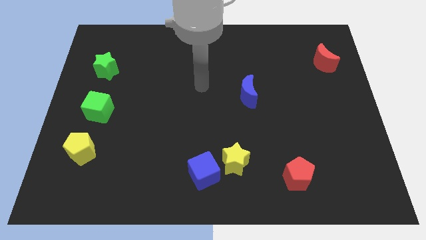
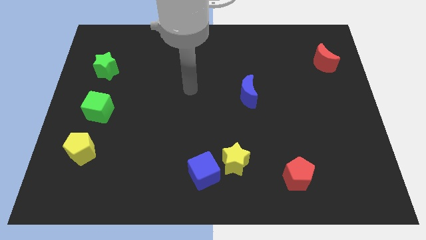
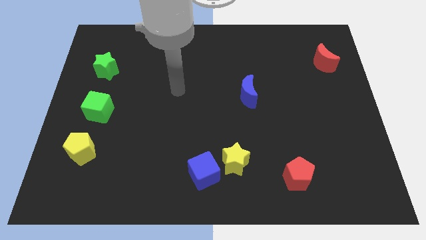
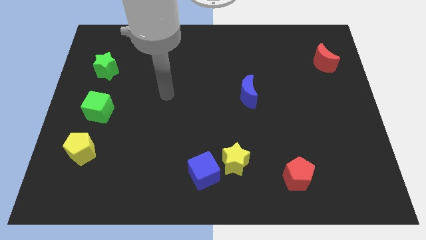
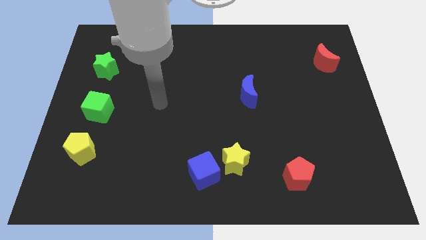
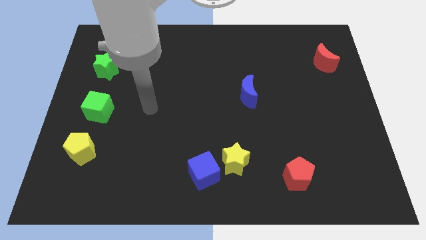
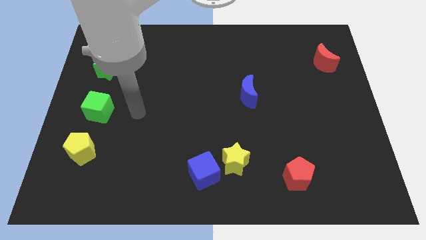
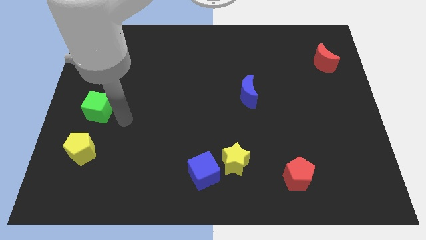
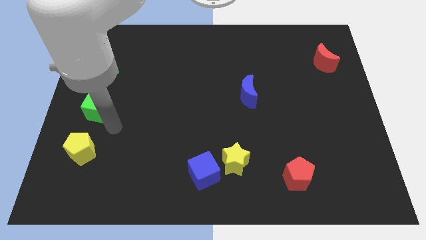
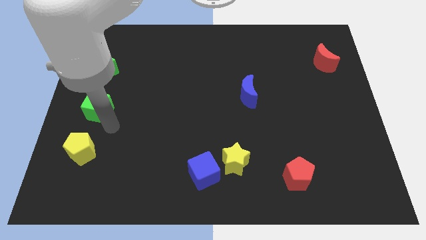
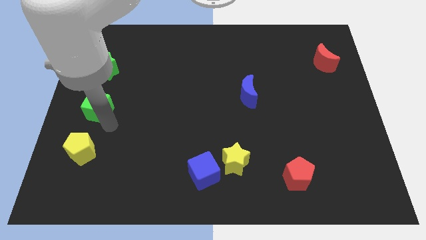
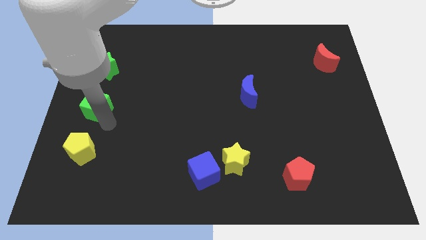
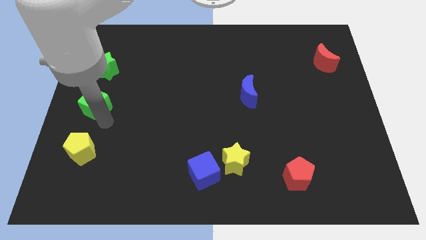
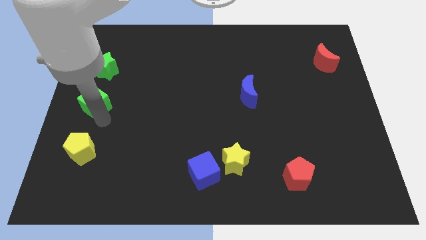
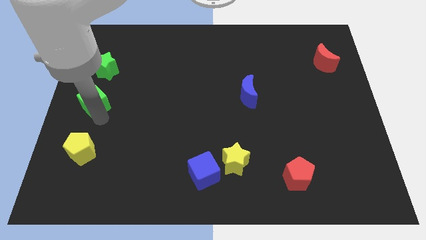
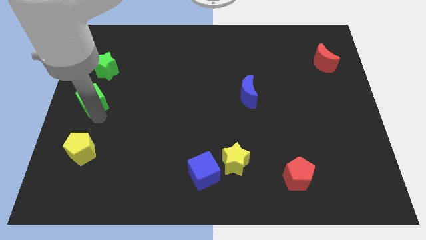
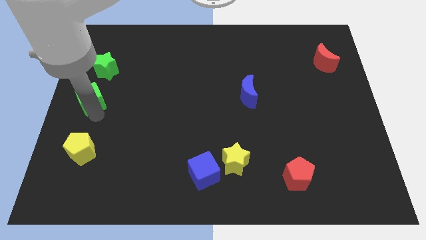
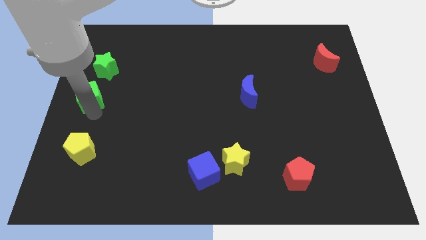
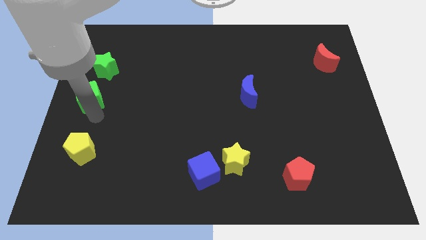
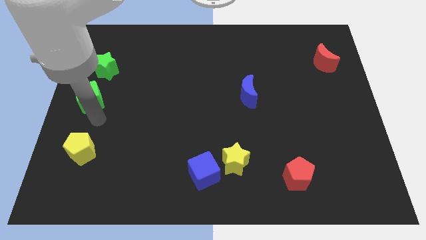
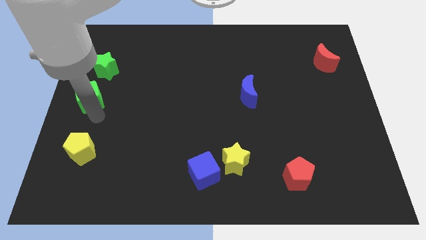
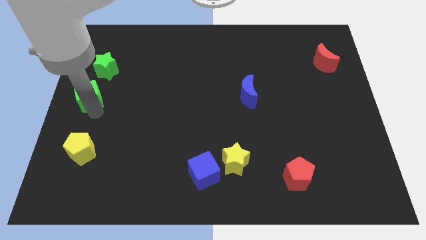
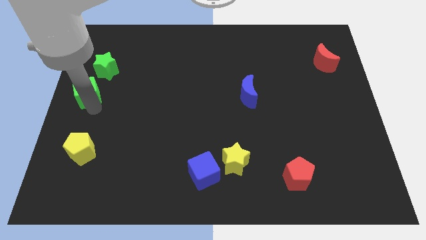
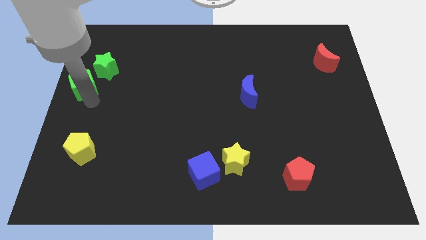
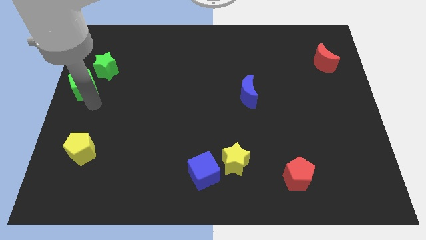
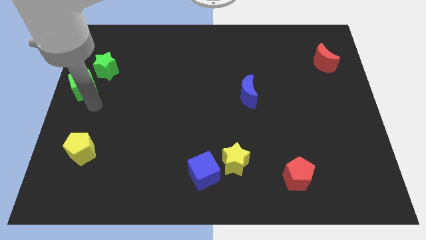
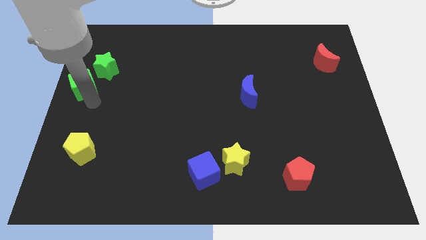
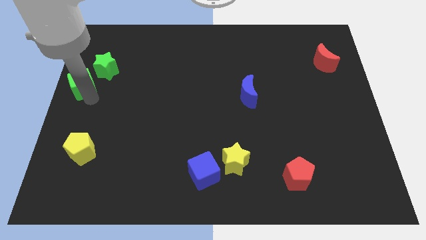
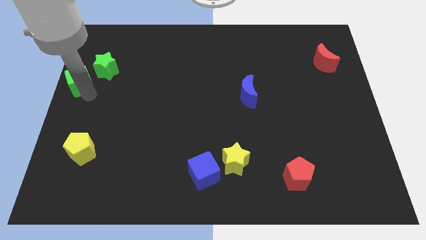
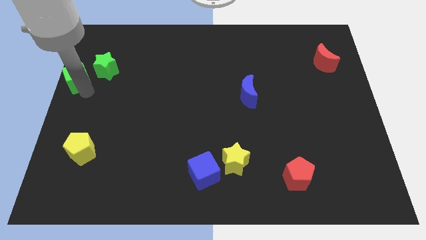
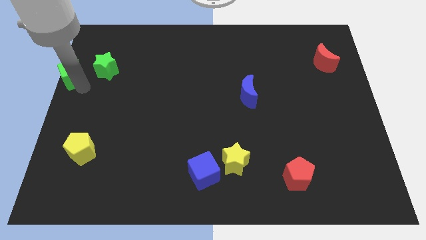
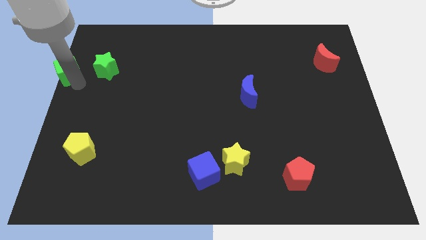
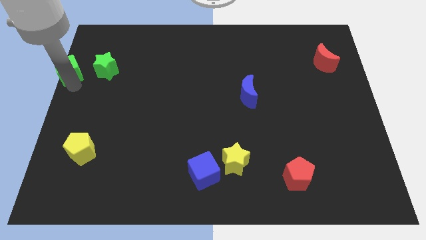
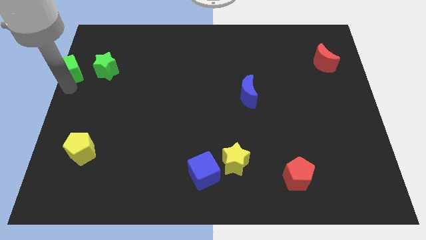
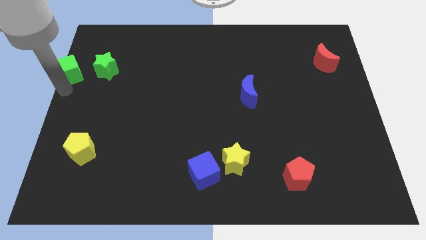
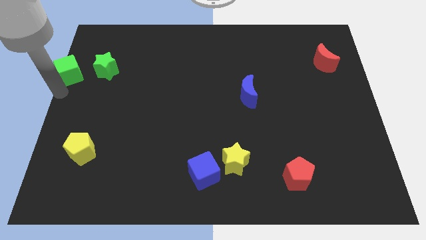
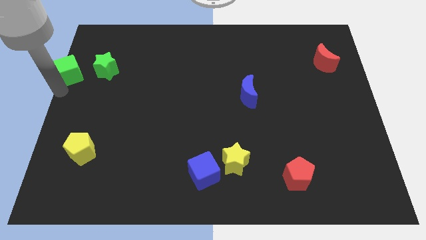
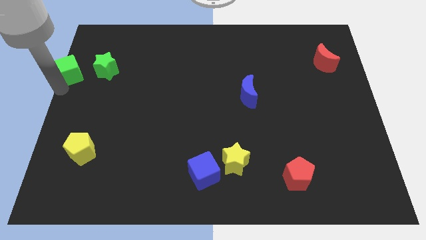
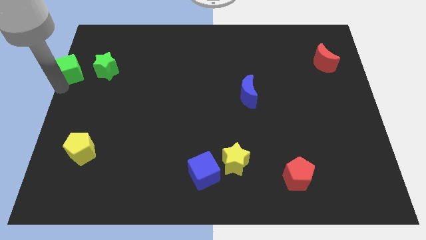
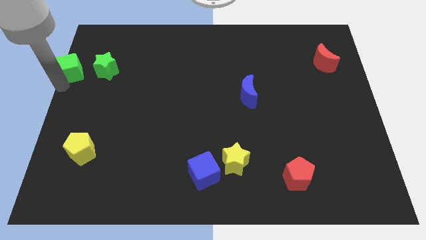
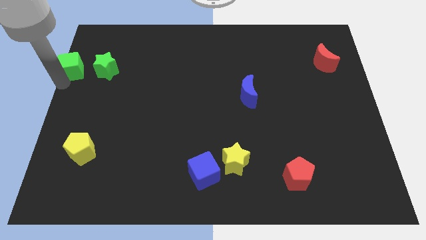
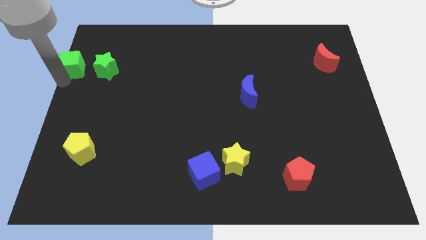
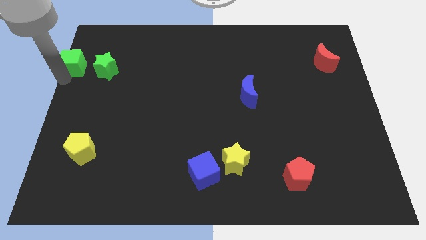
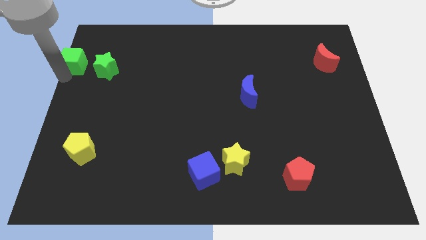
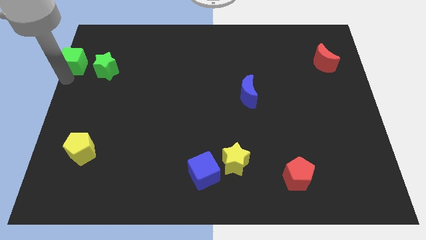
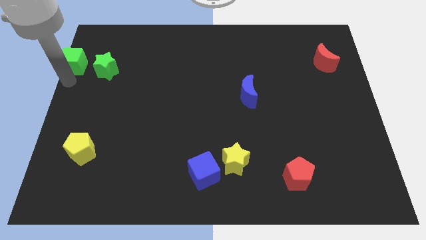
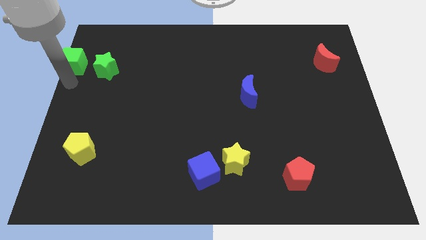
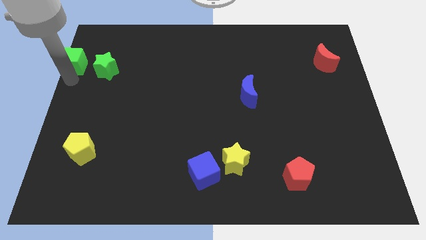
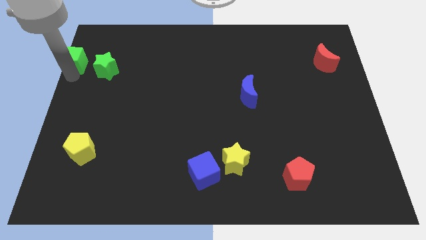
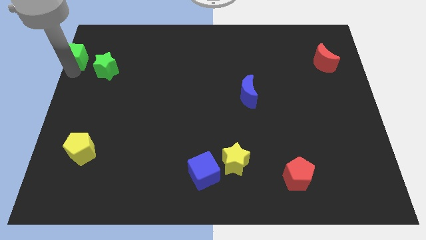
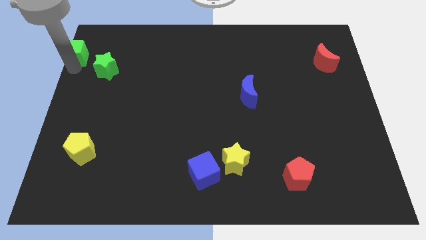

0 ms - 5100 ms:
move the green cube to the upper left corner

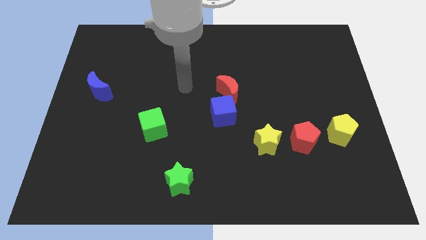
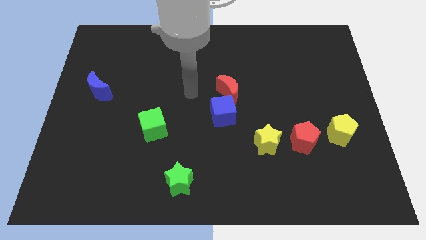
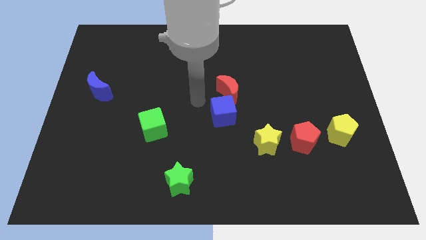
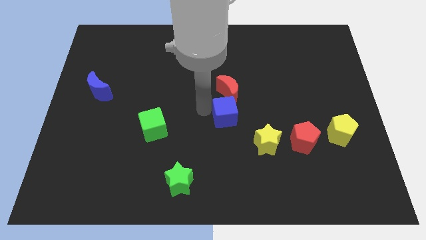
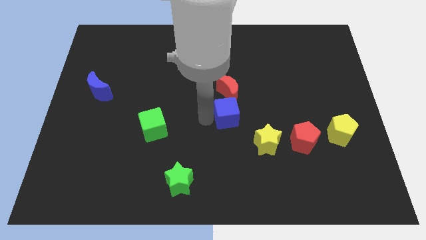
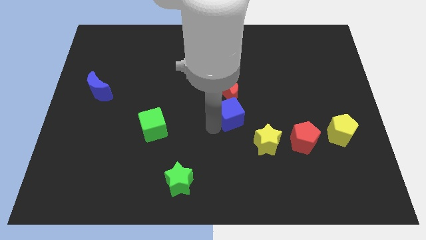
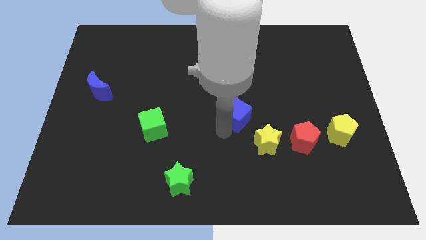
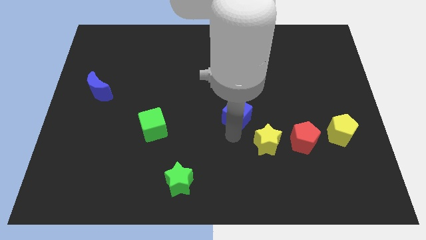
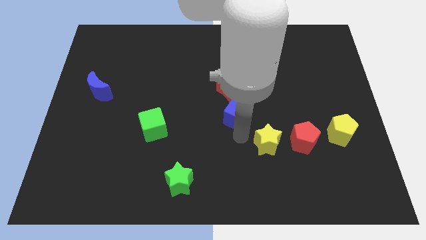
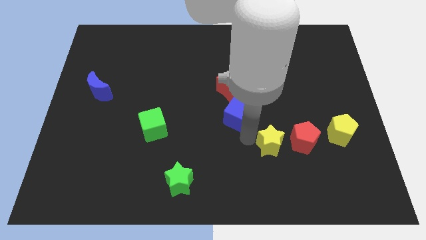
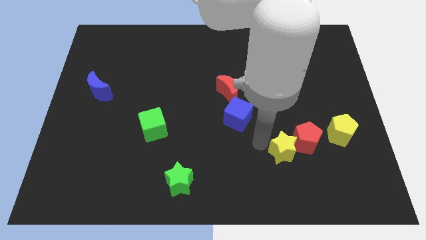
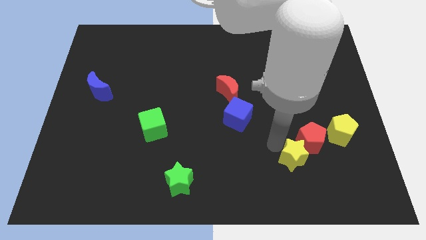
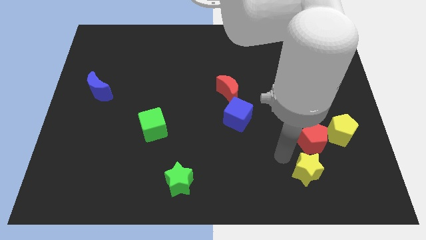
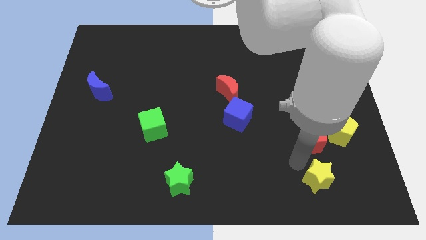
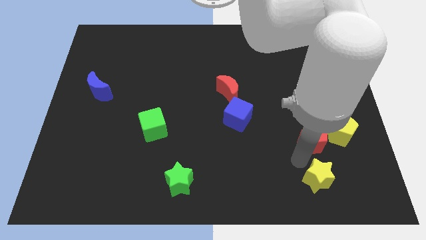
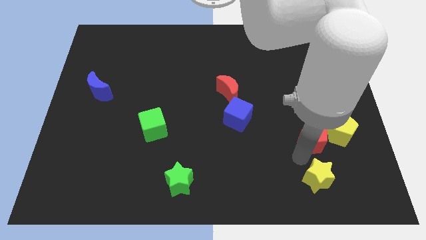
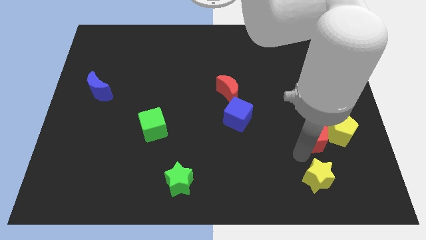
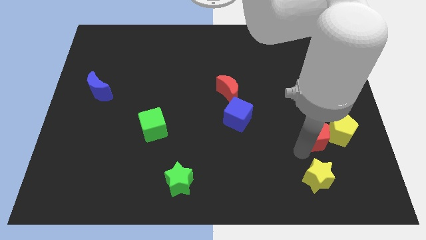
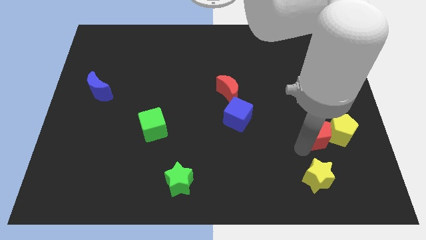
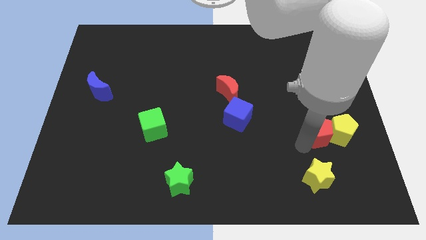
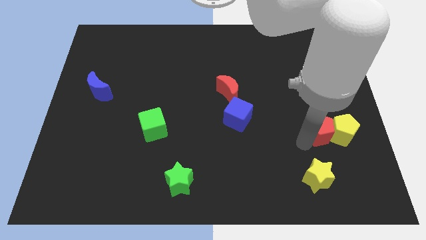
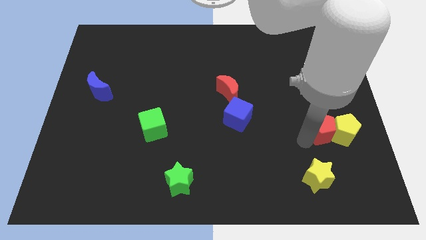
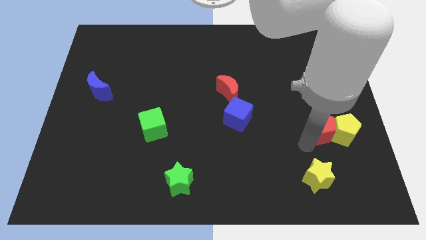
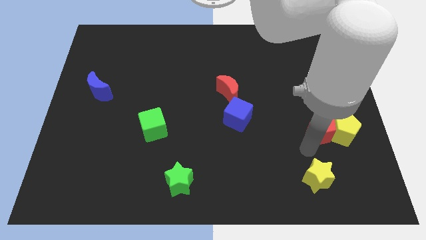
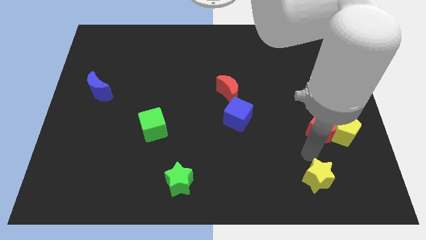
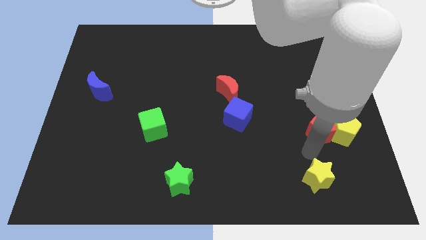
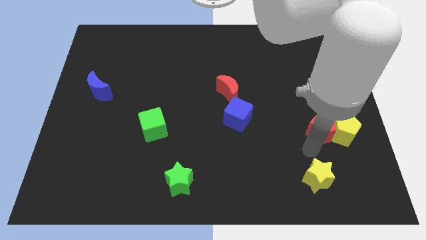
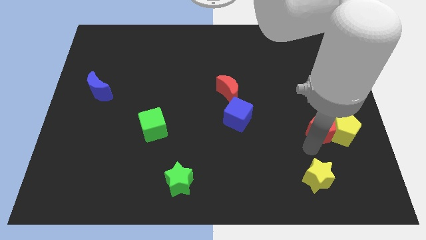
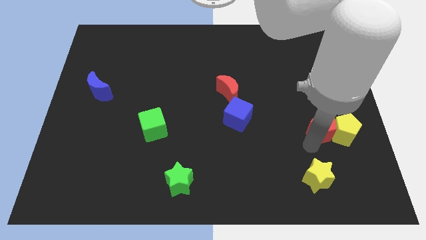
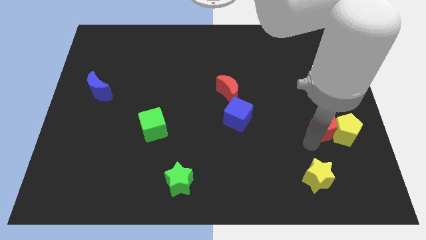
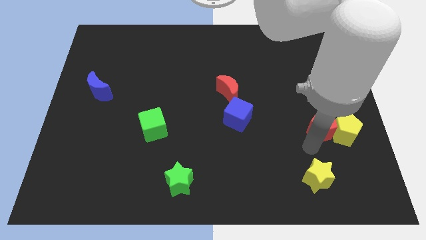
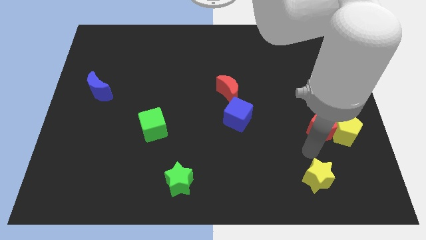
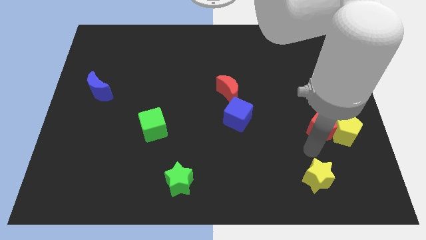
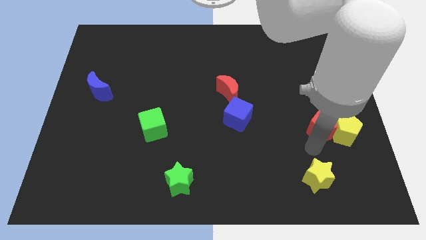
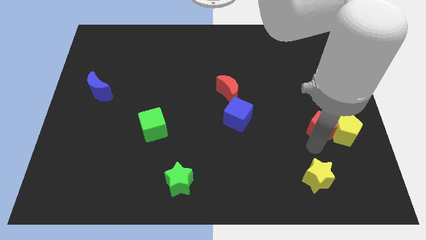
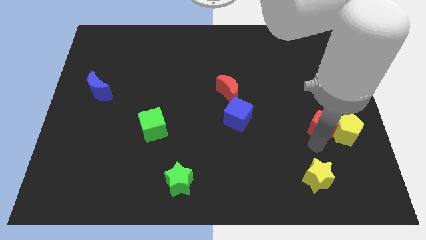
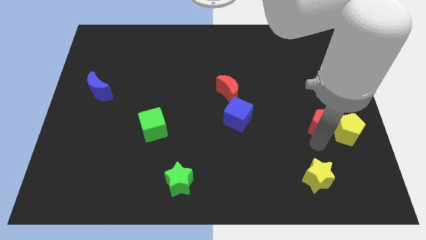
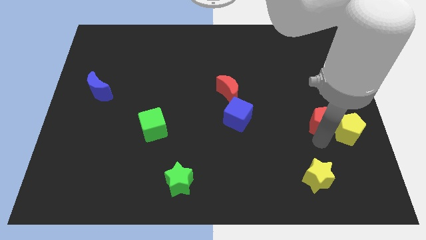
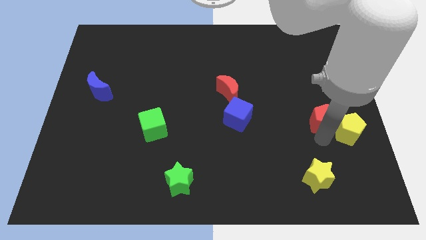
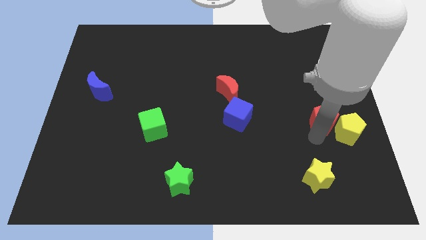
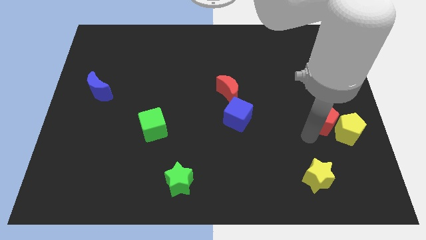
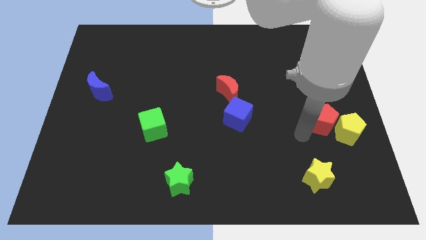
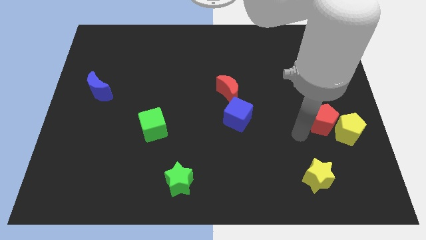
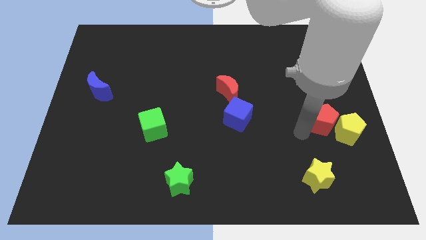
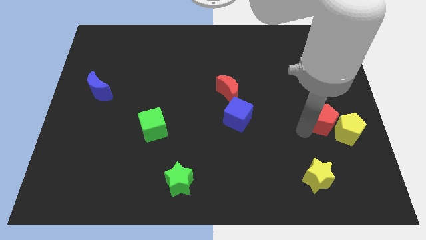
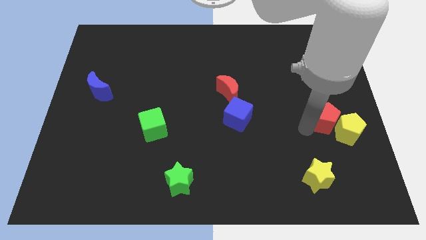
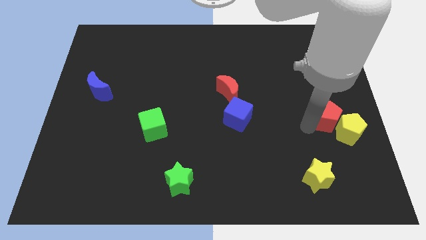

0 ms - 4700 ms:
put the red pentagon to the center right
